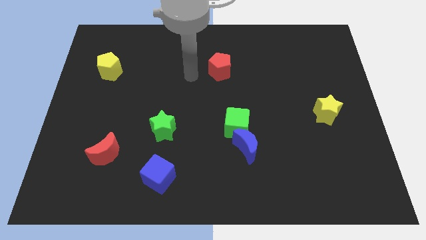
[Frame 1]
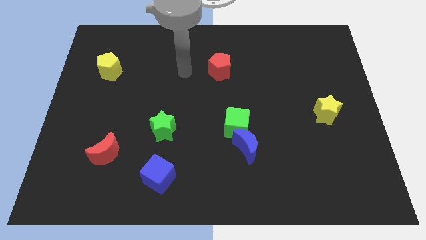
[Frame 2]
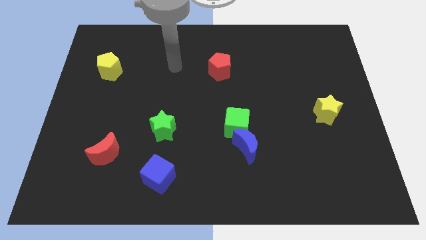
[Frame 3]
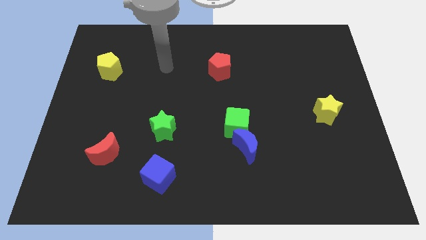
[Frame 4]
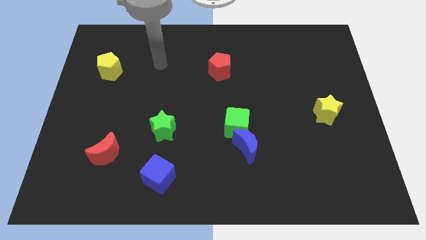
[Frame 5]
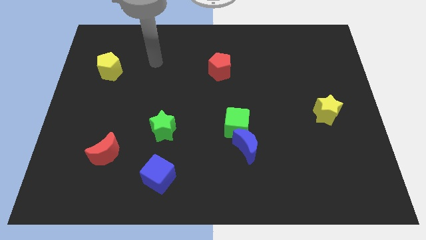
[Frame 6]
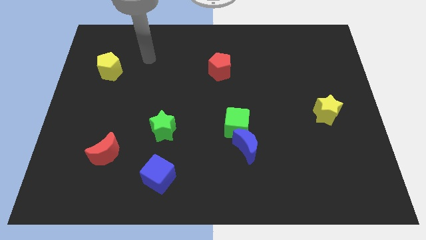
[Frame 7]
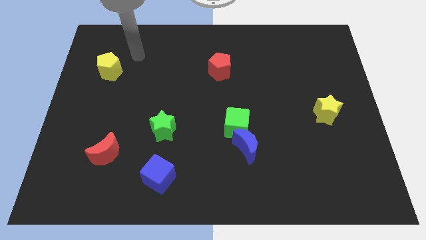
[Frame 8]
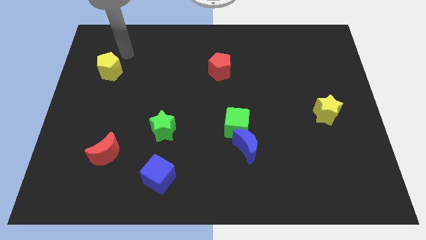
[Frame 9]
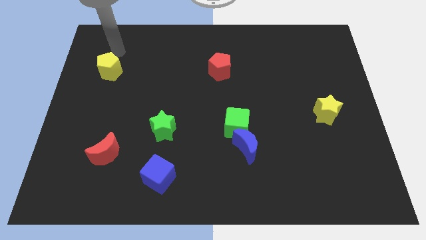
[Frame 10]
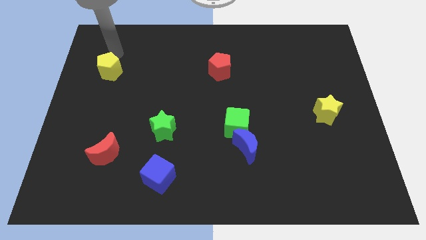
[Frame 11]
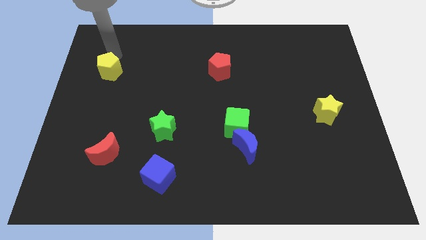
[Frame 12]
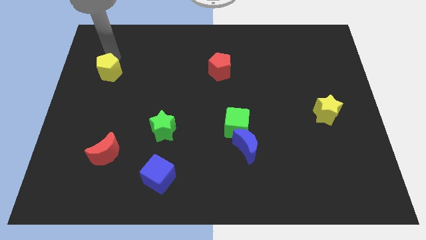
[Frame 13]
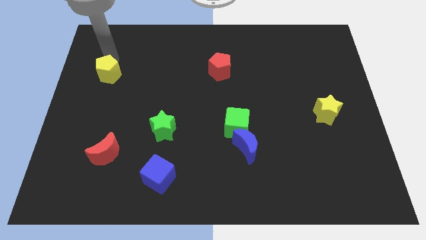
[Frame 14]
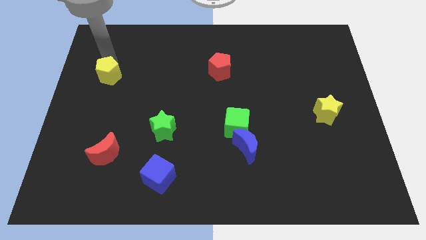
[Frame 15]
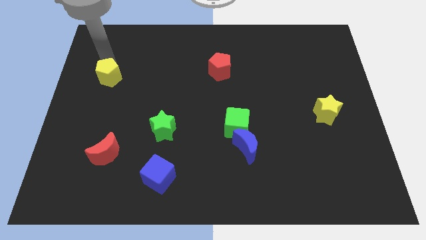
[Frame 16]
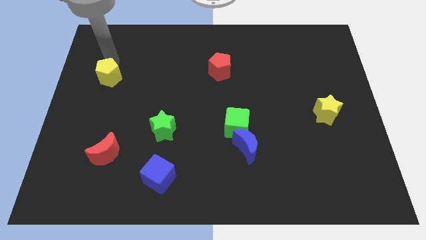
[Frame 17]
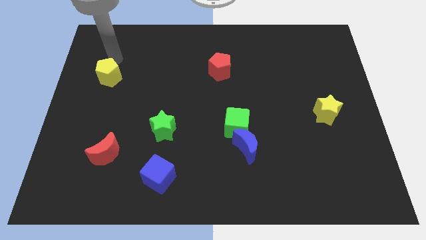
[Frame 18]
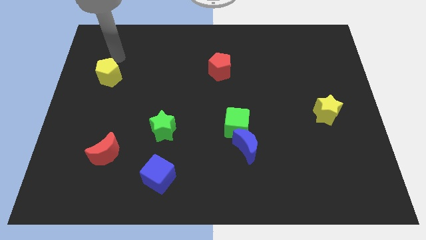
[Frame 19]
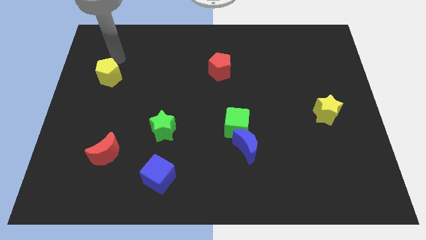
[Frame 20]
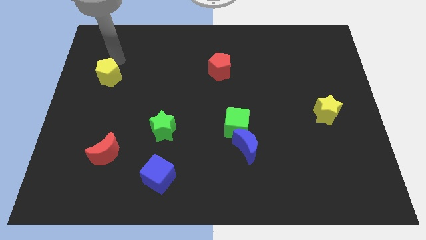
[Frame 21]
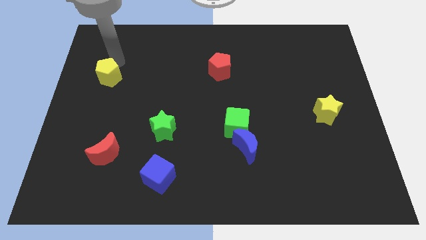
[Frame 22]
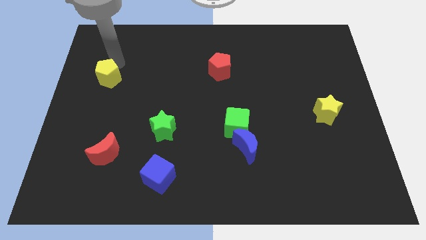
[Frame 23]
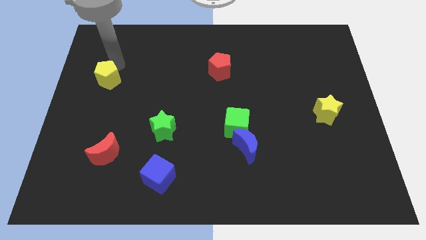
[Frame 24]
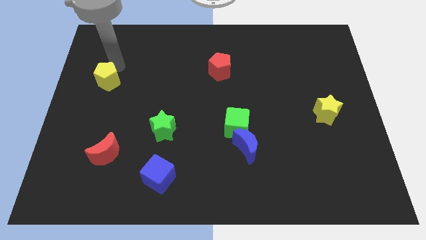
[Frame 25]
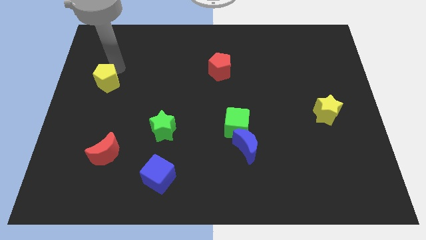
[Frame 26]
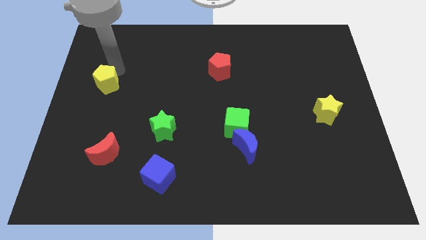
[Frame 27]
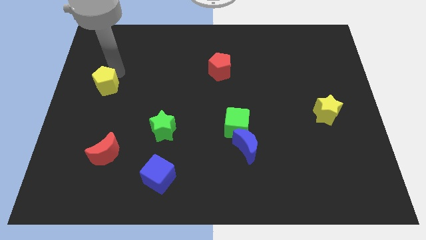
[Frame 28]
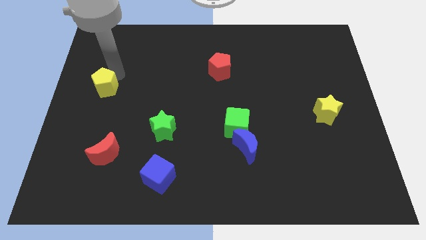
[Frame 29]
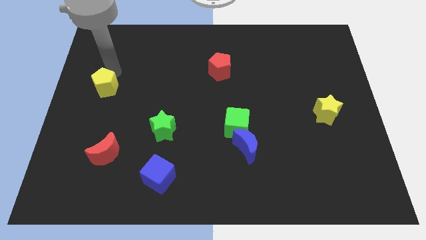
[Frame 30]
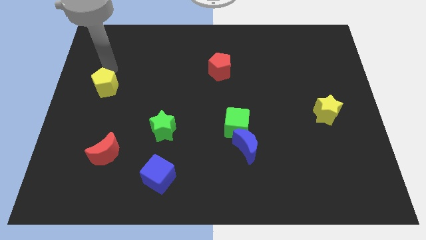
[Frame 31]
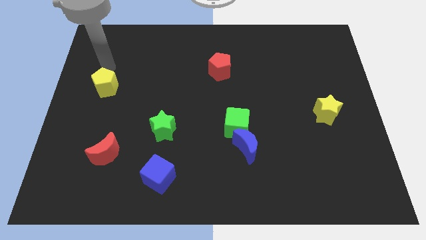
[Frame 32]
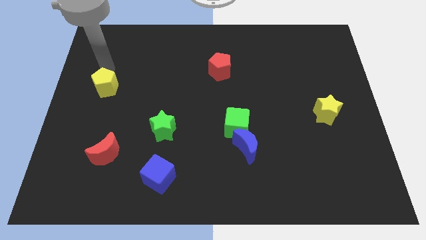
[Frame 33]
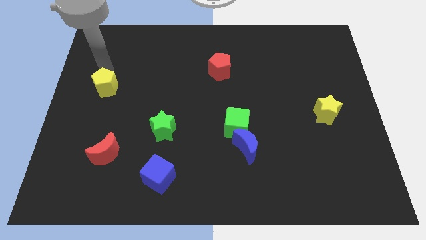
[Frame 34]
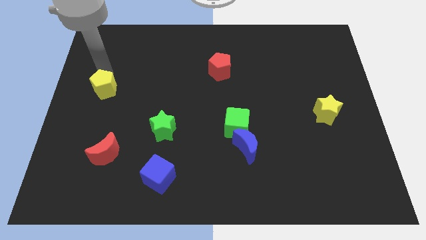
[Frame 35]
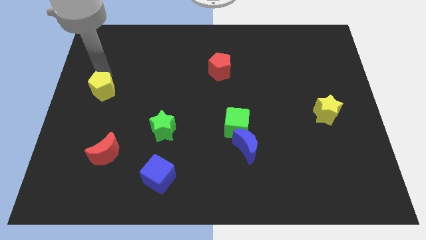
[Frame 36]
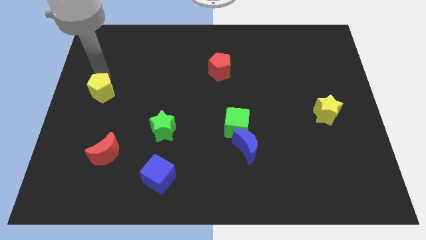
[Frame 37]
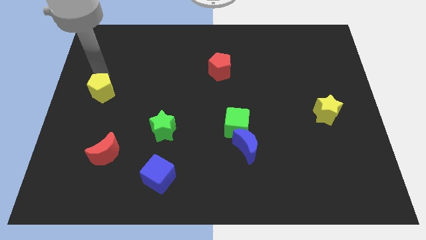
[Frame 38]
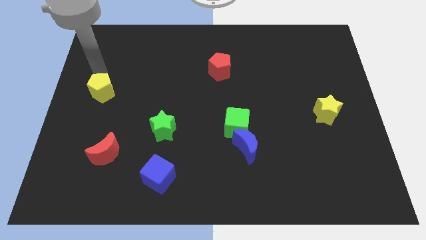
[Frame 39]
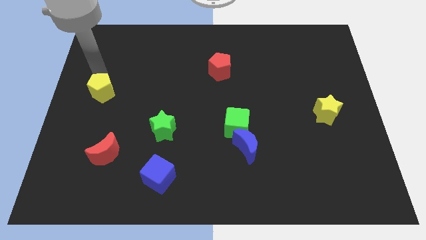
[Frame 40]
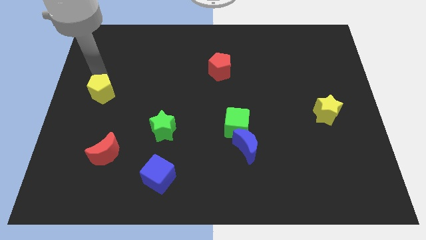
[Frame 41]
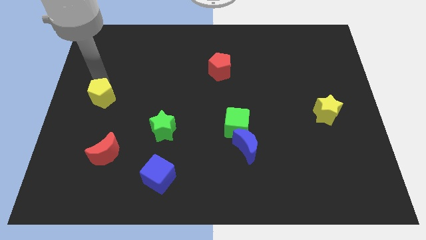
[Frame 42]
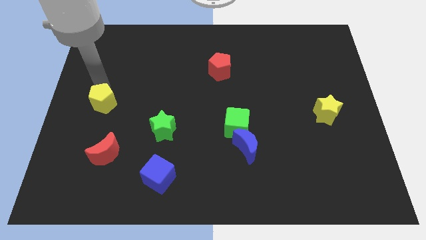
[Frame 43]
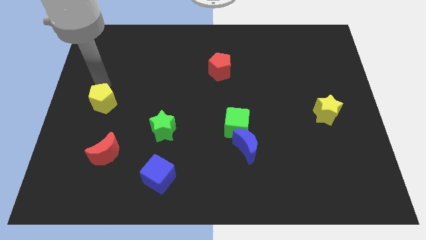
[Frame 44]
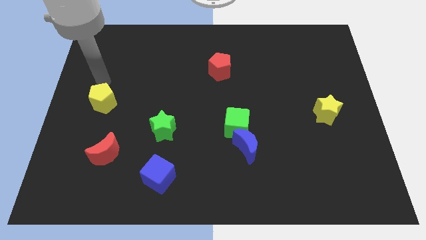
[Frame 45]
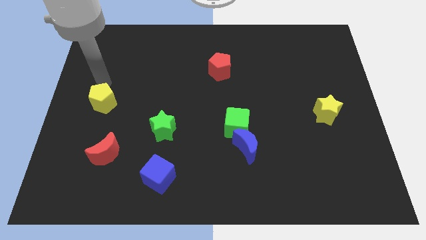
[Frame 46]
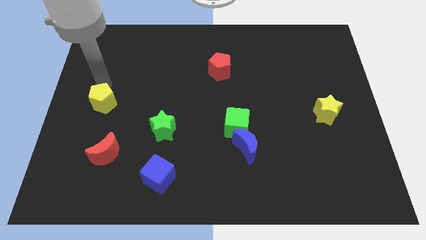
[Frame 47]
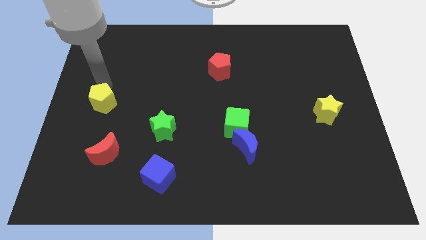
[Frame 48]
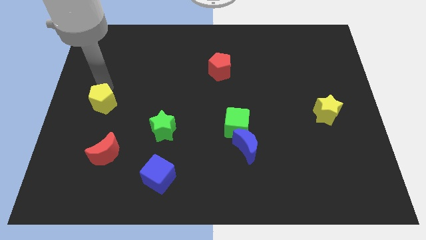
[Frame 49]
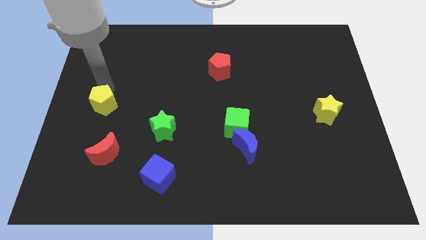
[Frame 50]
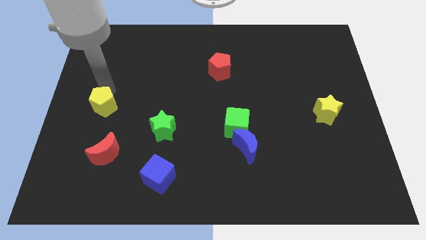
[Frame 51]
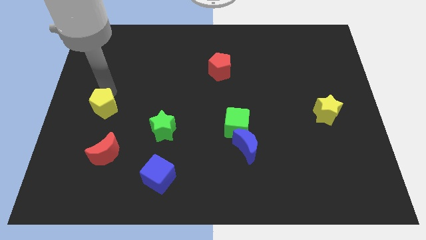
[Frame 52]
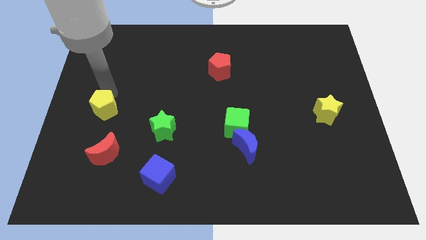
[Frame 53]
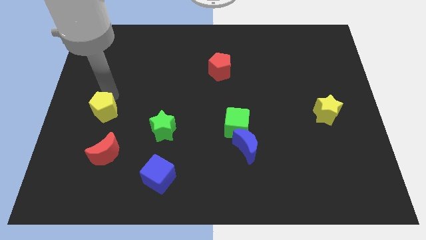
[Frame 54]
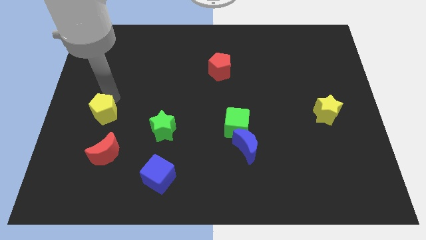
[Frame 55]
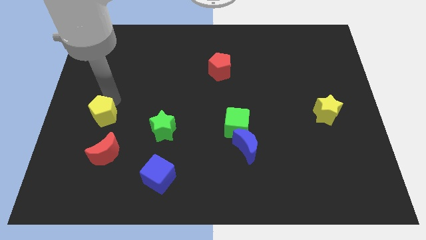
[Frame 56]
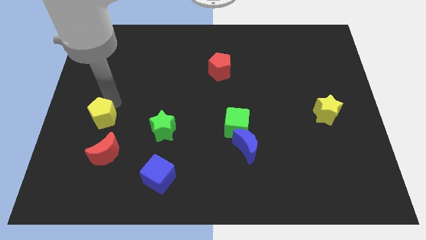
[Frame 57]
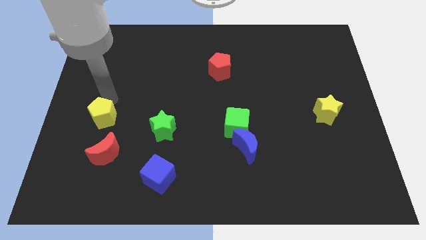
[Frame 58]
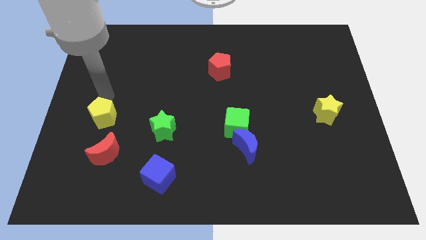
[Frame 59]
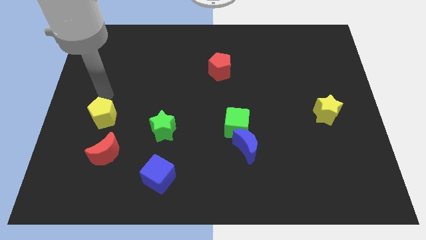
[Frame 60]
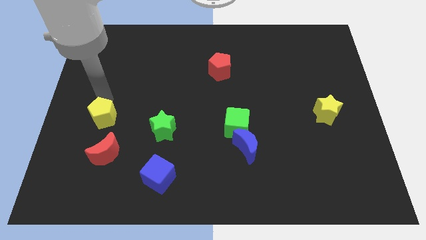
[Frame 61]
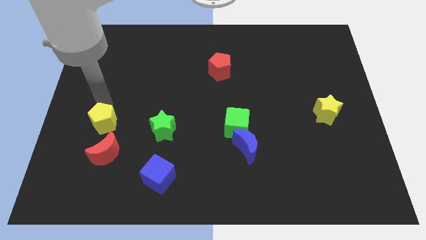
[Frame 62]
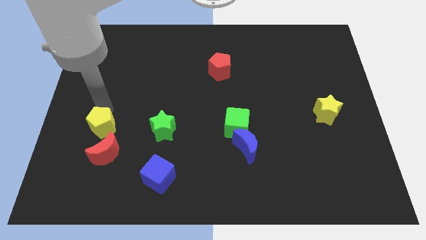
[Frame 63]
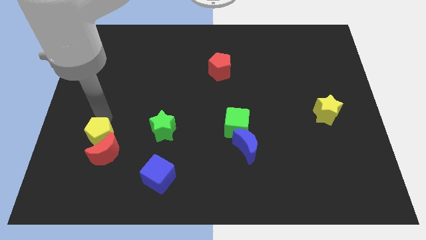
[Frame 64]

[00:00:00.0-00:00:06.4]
slide the yellow pentagon next to the red moon
